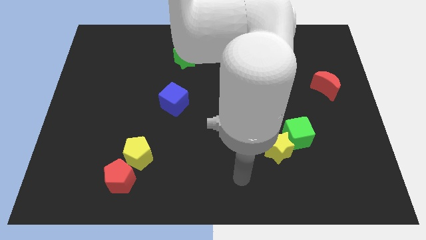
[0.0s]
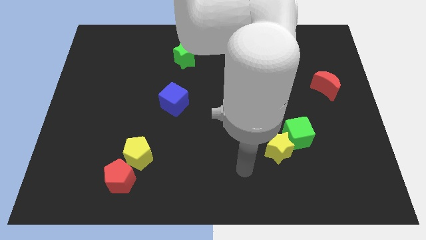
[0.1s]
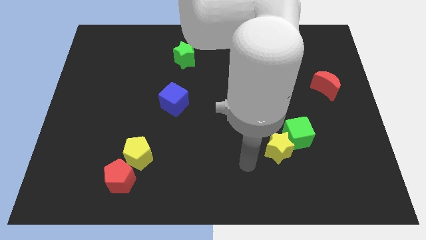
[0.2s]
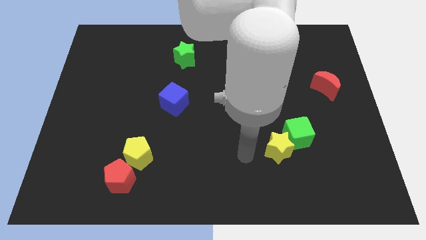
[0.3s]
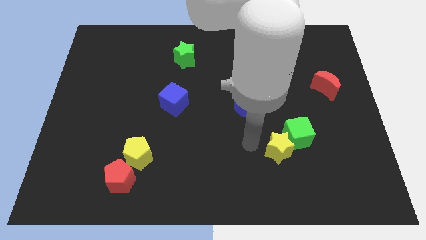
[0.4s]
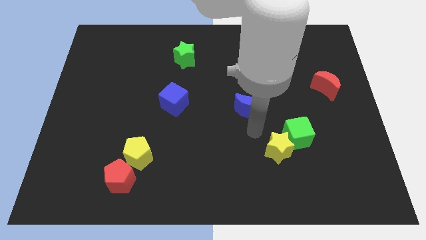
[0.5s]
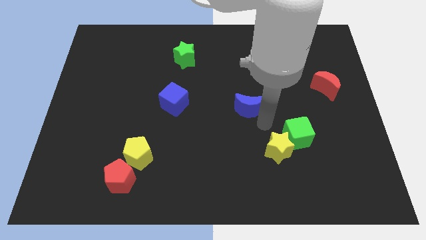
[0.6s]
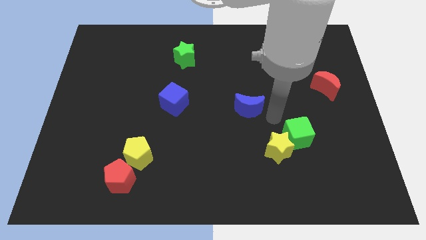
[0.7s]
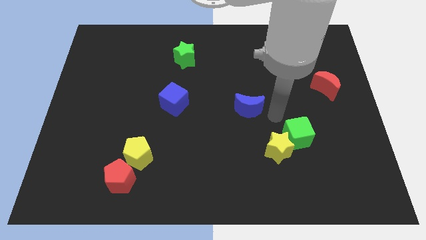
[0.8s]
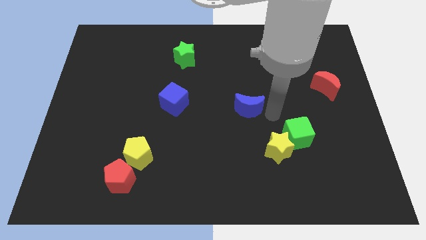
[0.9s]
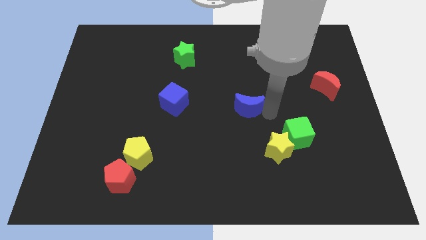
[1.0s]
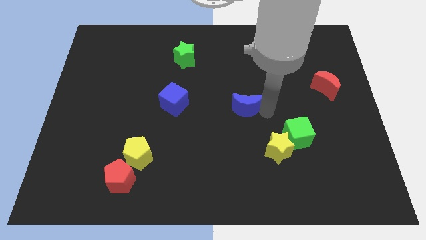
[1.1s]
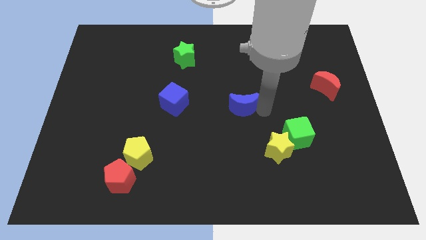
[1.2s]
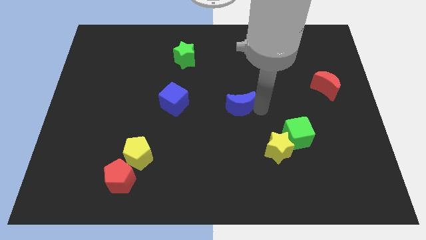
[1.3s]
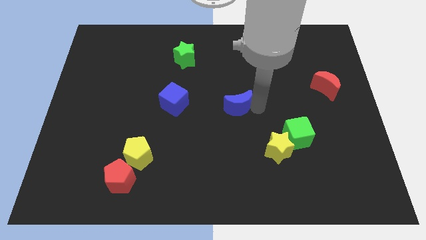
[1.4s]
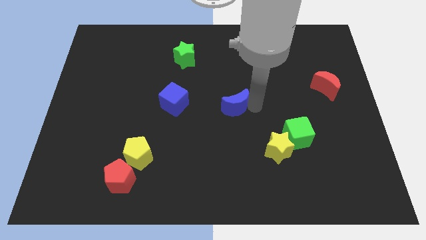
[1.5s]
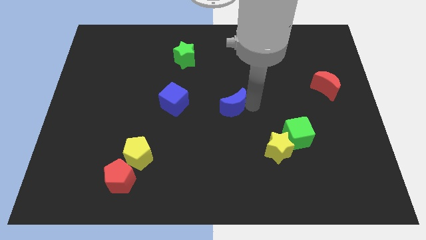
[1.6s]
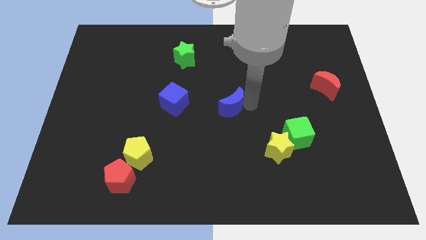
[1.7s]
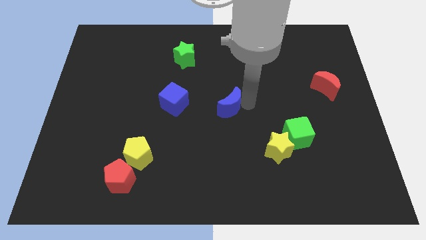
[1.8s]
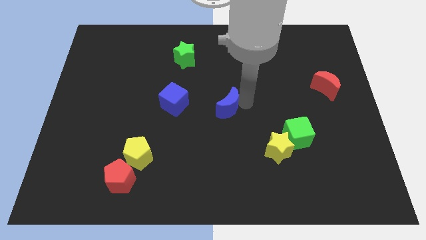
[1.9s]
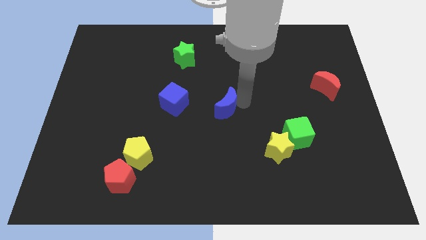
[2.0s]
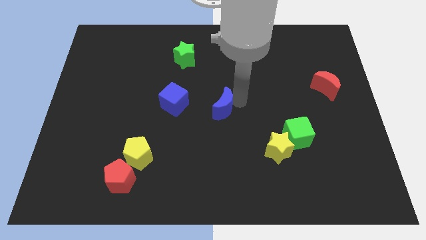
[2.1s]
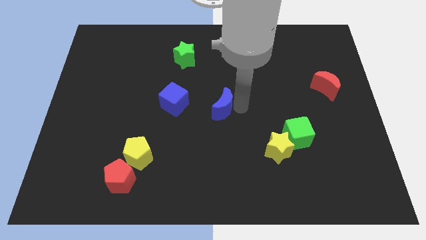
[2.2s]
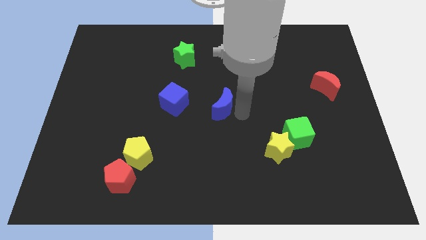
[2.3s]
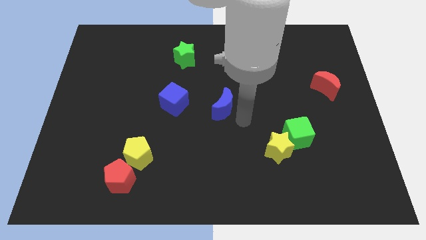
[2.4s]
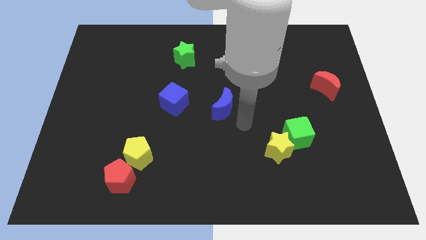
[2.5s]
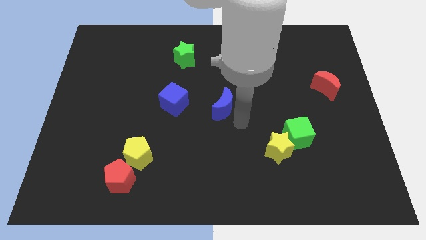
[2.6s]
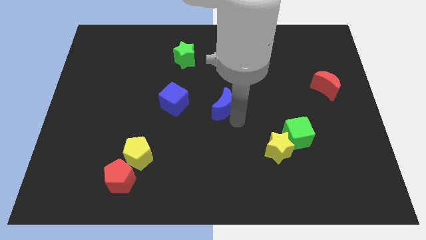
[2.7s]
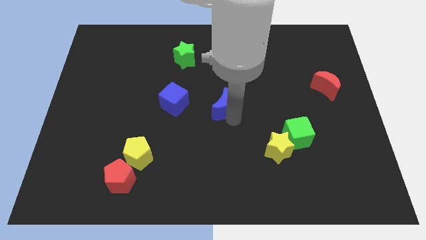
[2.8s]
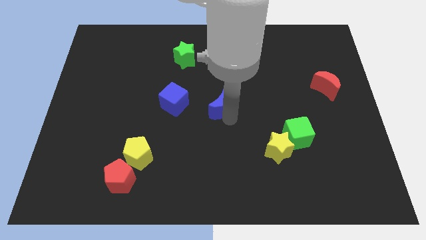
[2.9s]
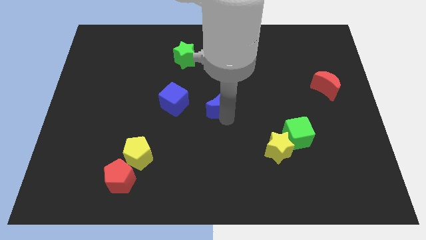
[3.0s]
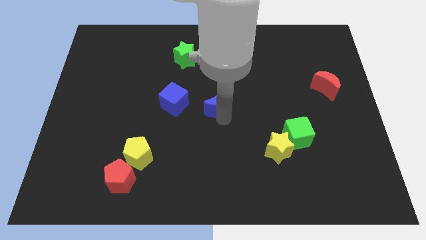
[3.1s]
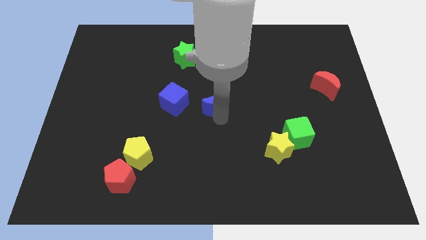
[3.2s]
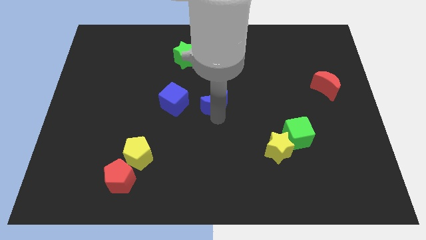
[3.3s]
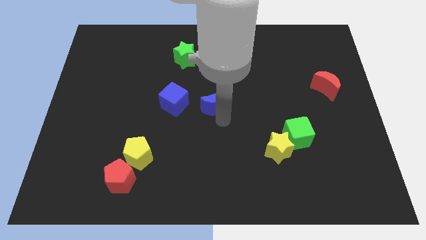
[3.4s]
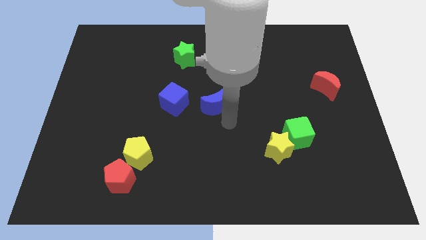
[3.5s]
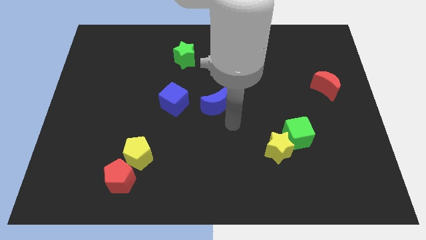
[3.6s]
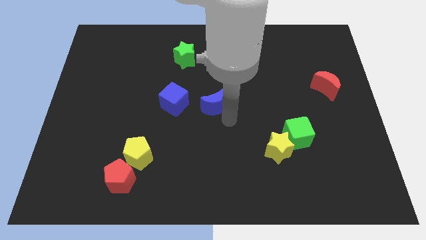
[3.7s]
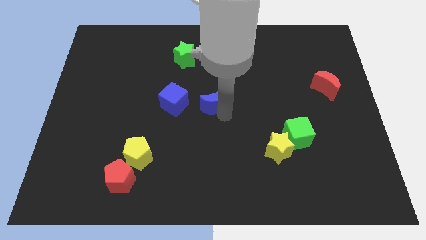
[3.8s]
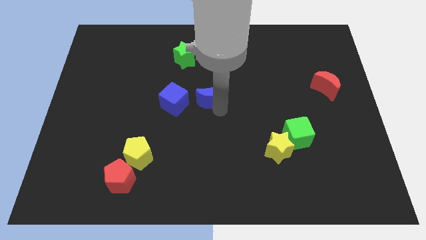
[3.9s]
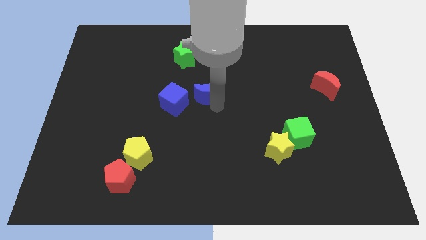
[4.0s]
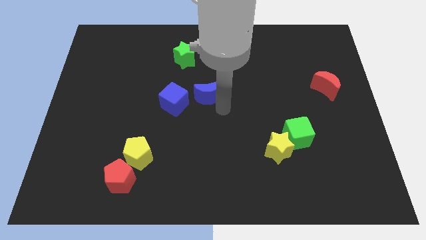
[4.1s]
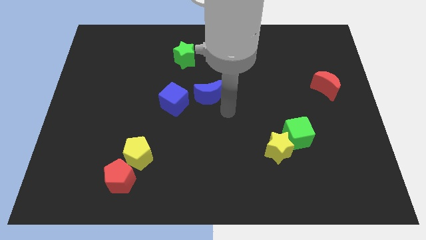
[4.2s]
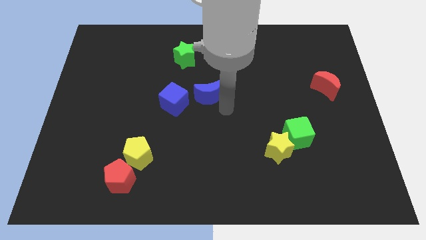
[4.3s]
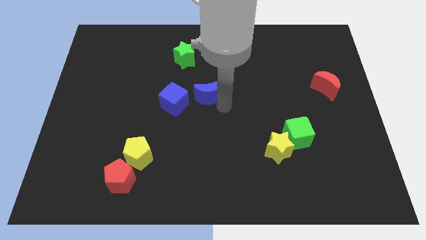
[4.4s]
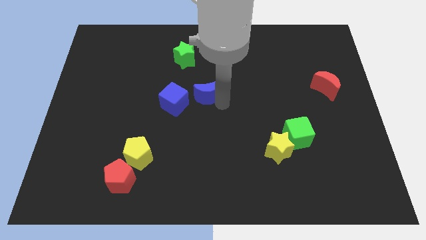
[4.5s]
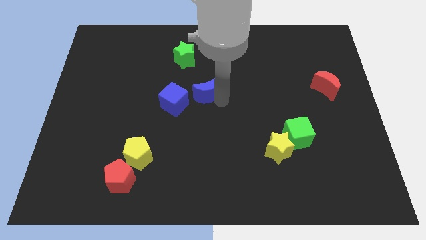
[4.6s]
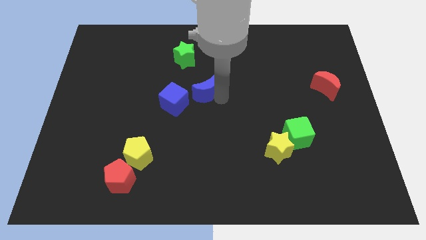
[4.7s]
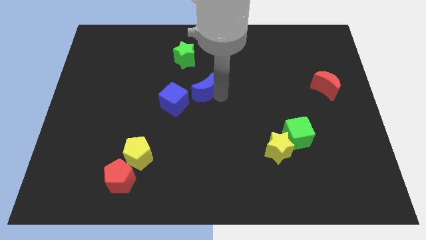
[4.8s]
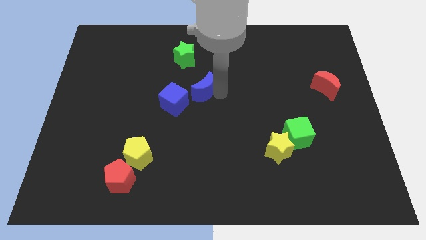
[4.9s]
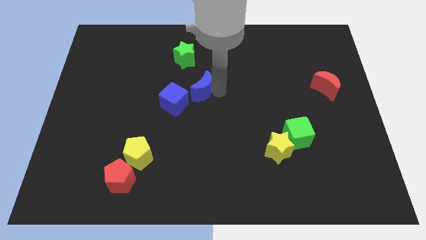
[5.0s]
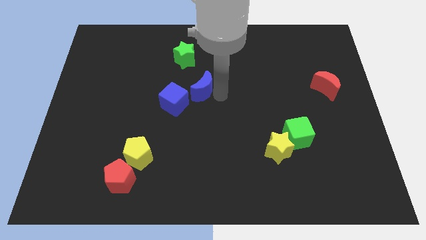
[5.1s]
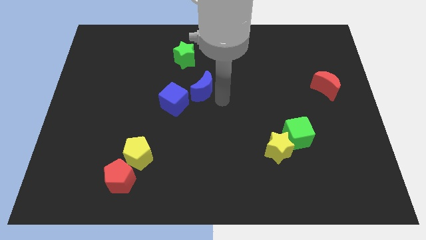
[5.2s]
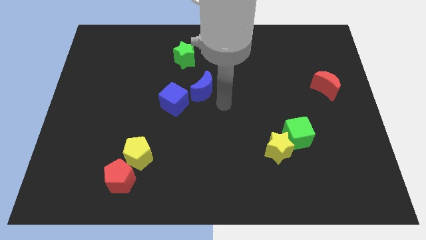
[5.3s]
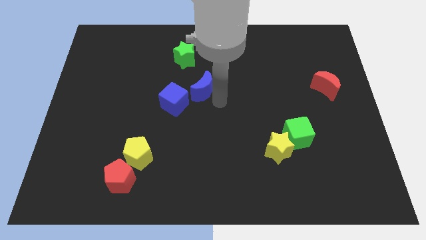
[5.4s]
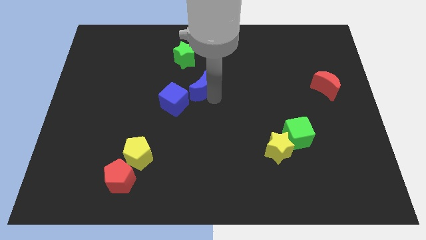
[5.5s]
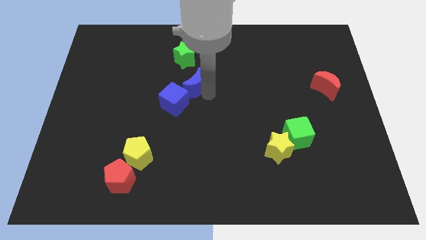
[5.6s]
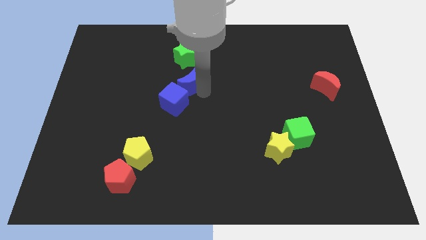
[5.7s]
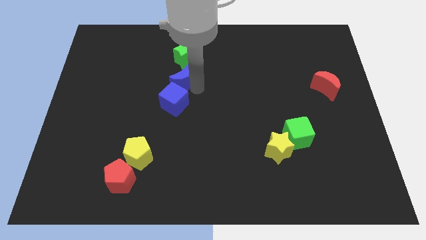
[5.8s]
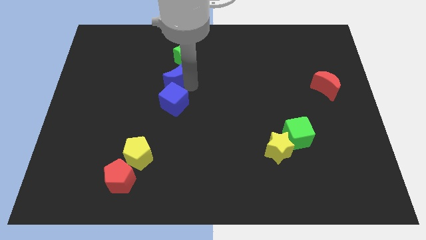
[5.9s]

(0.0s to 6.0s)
push the blue moon to the bottom left side of the green star
